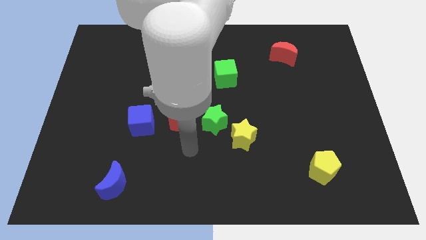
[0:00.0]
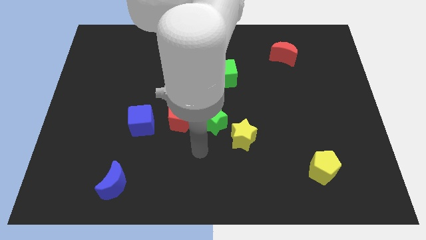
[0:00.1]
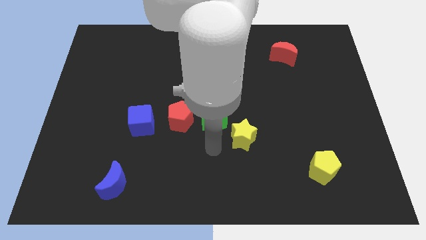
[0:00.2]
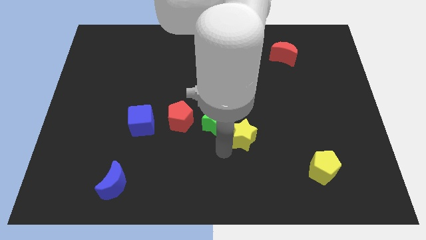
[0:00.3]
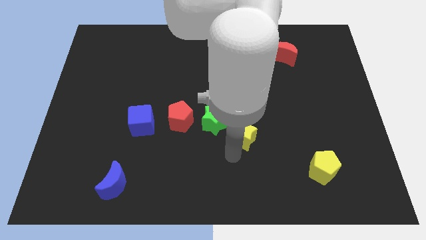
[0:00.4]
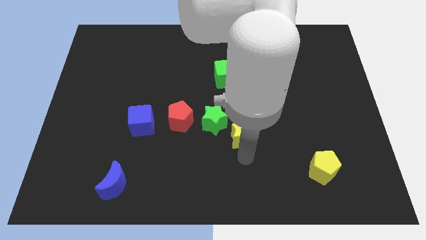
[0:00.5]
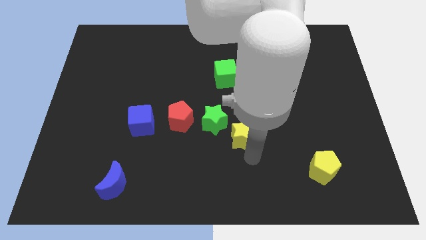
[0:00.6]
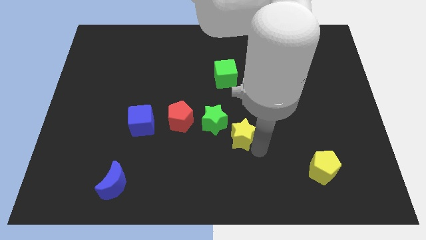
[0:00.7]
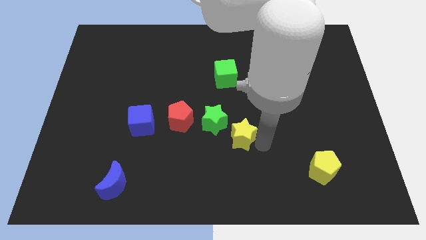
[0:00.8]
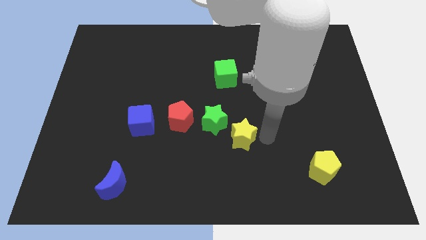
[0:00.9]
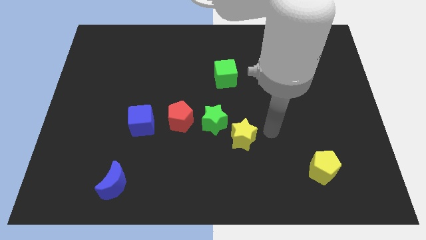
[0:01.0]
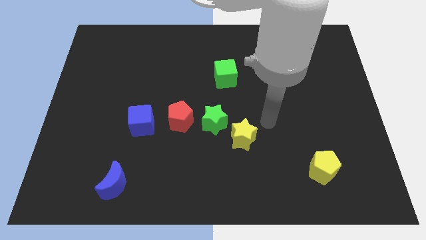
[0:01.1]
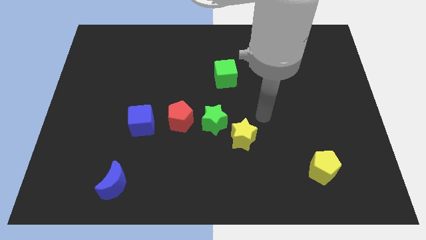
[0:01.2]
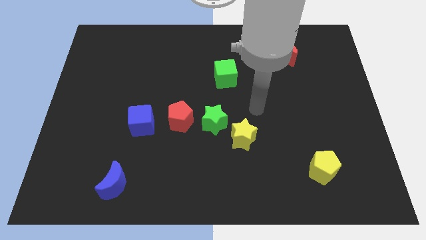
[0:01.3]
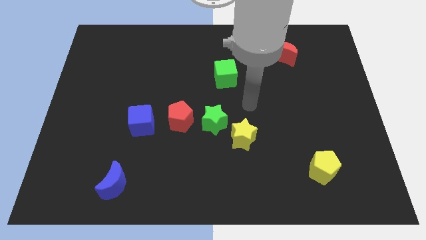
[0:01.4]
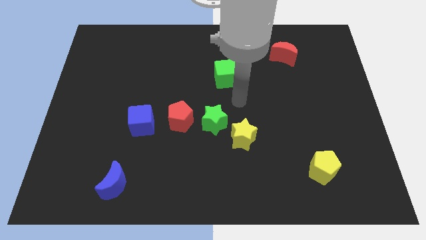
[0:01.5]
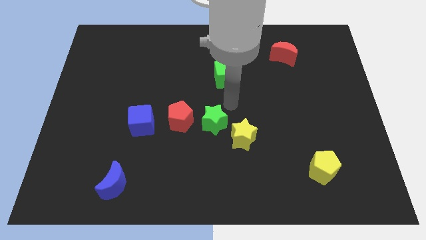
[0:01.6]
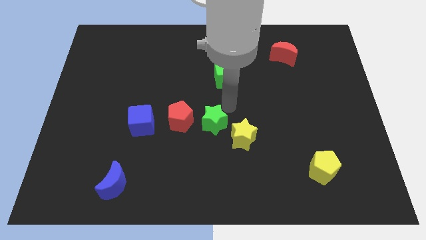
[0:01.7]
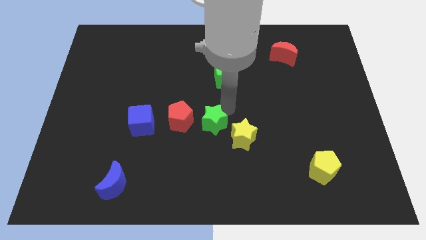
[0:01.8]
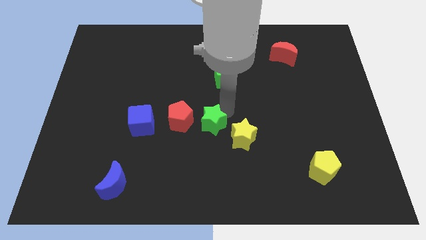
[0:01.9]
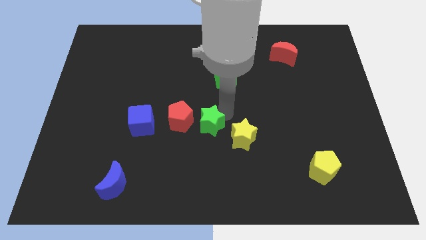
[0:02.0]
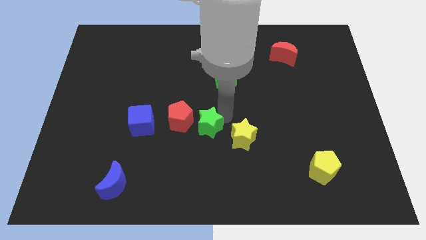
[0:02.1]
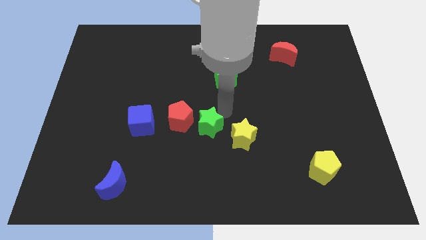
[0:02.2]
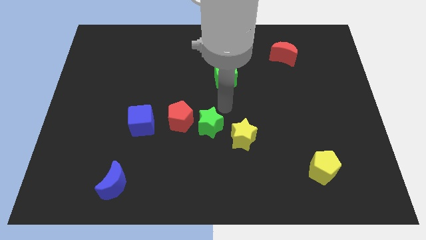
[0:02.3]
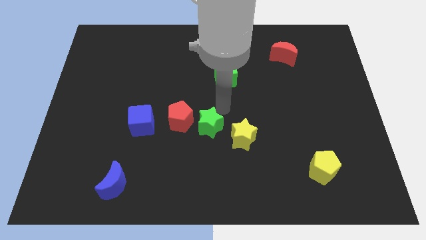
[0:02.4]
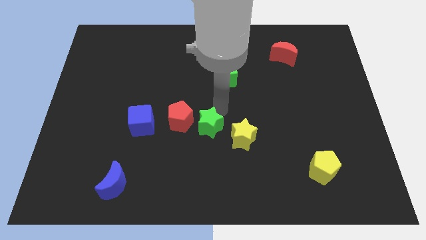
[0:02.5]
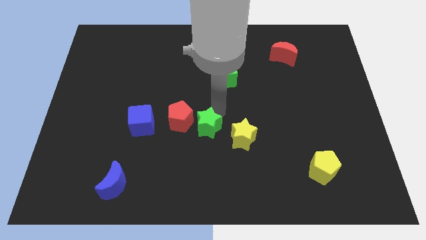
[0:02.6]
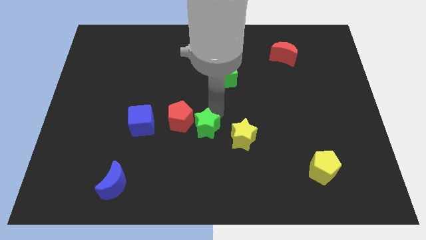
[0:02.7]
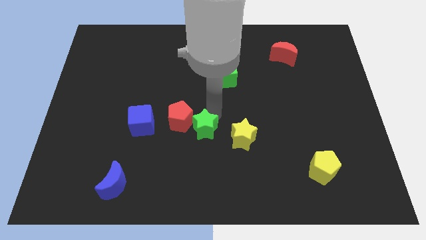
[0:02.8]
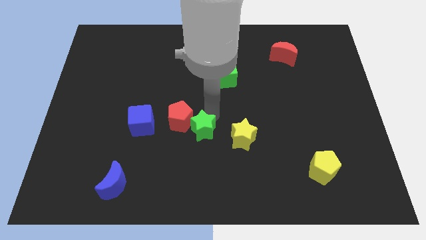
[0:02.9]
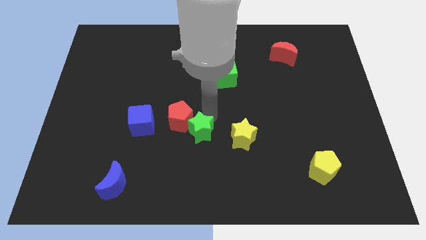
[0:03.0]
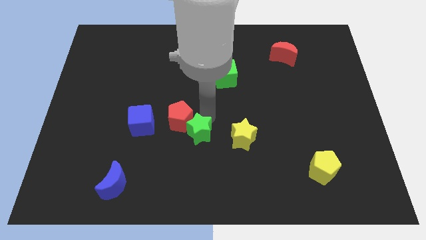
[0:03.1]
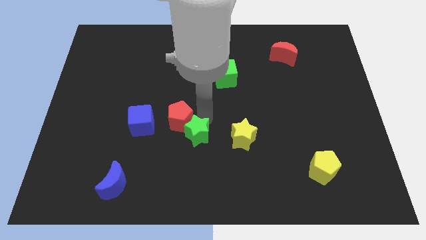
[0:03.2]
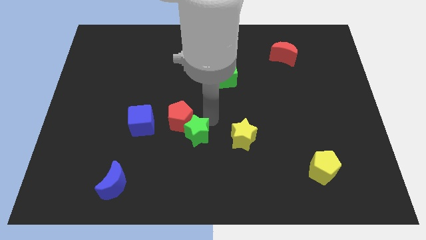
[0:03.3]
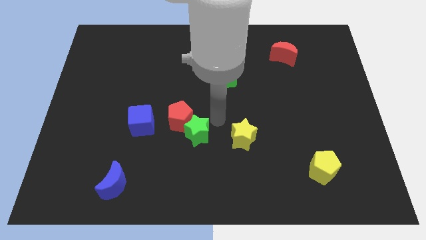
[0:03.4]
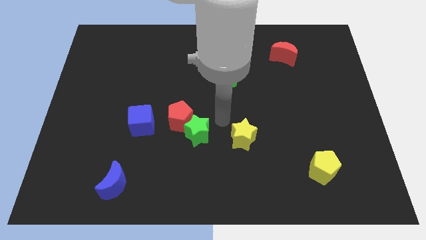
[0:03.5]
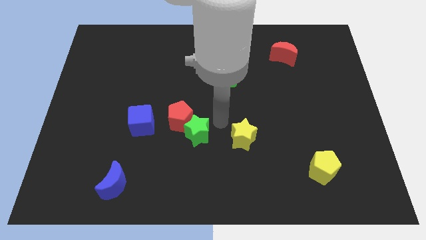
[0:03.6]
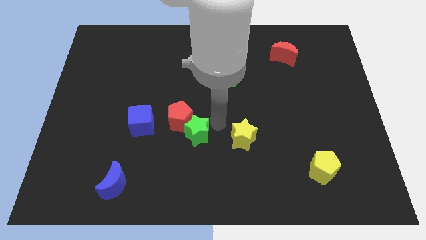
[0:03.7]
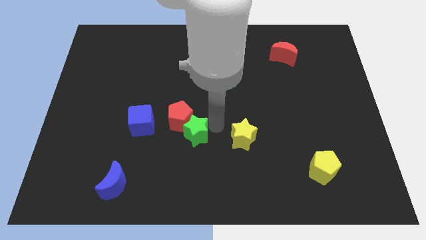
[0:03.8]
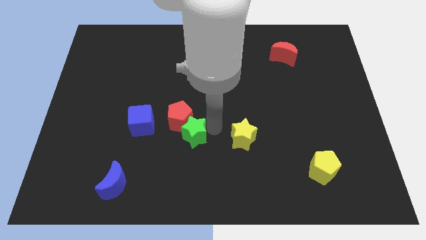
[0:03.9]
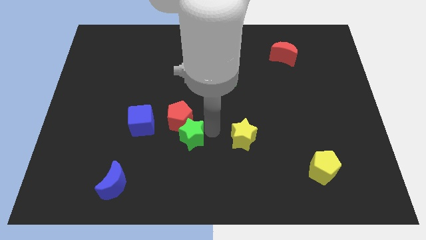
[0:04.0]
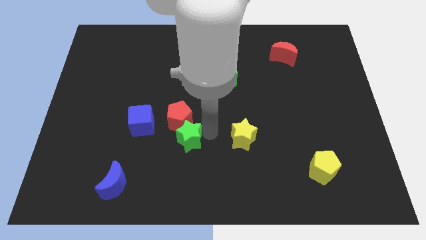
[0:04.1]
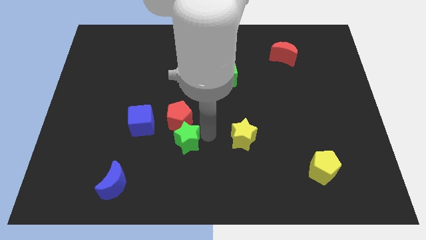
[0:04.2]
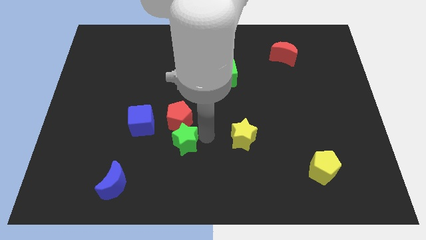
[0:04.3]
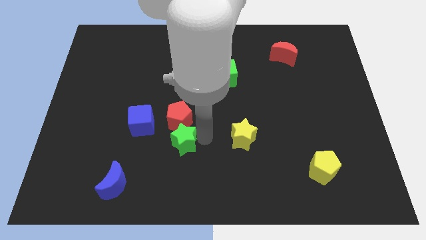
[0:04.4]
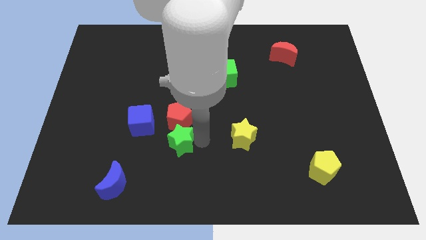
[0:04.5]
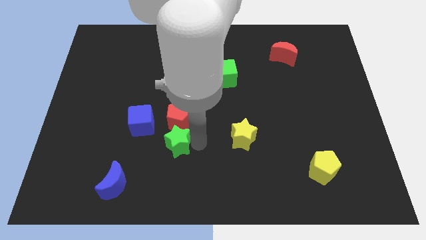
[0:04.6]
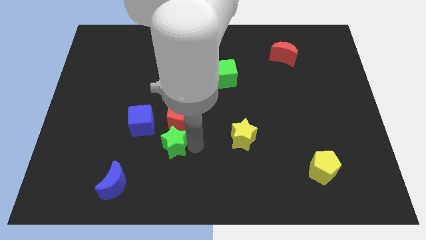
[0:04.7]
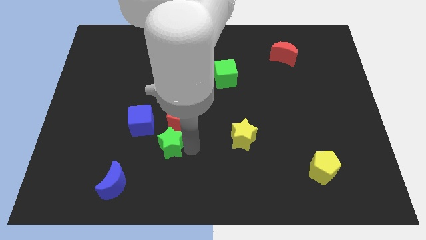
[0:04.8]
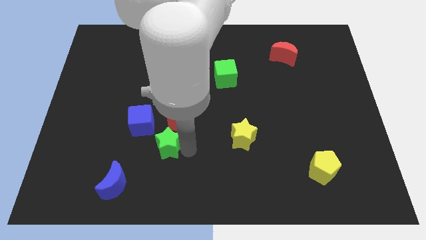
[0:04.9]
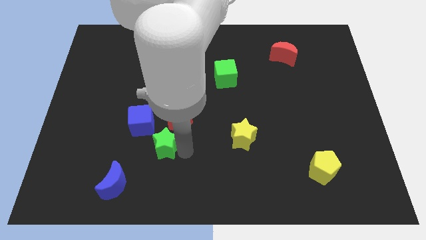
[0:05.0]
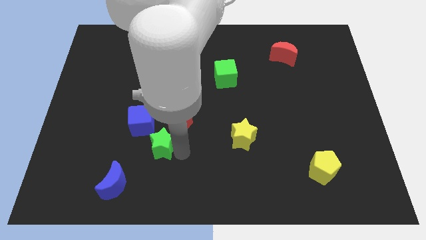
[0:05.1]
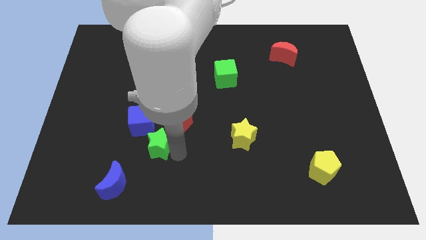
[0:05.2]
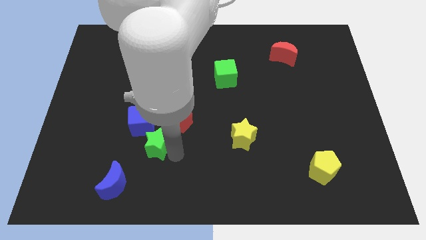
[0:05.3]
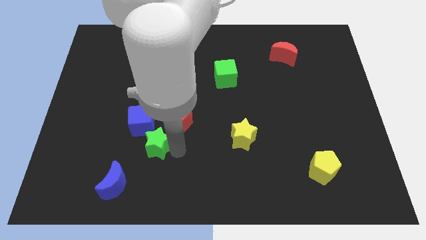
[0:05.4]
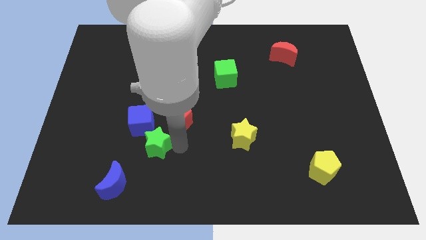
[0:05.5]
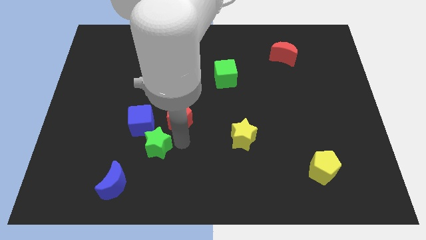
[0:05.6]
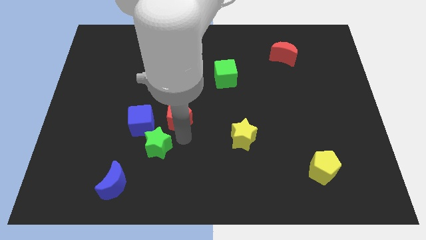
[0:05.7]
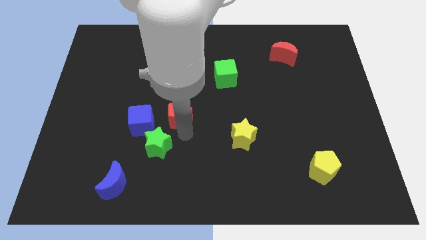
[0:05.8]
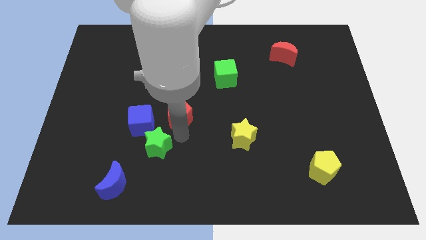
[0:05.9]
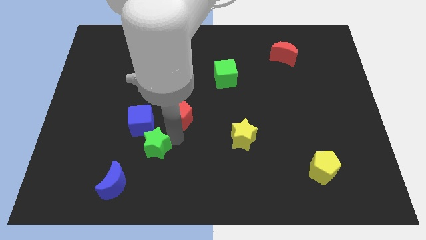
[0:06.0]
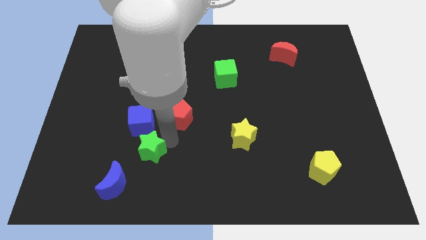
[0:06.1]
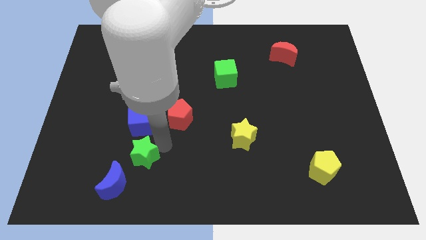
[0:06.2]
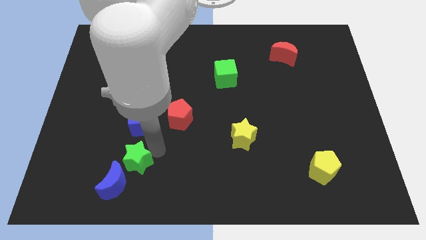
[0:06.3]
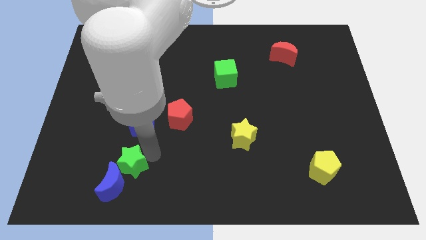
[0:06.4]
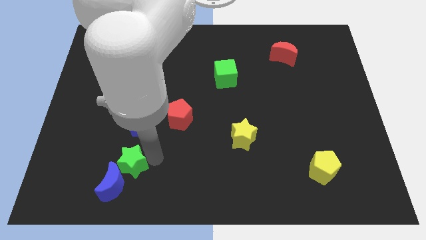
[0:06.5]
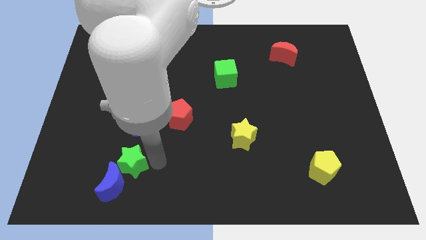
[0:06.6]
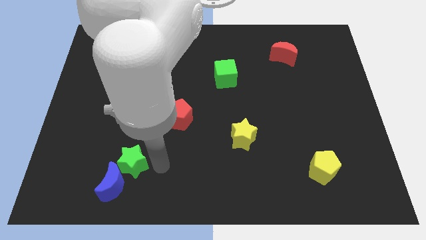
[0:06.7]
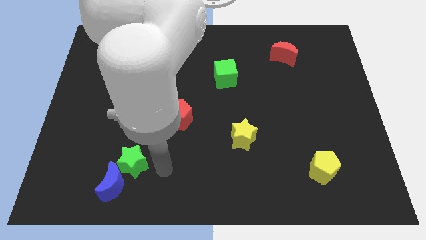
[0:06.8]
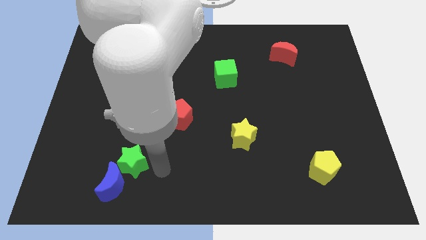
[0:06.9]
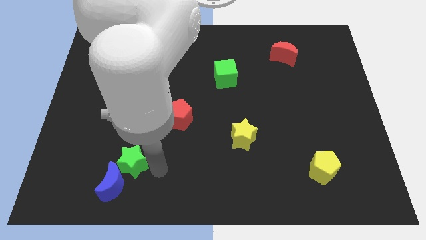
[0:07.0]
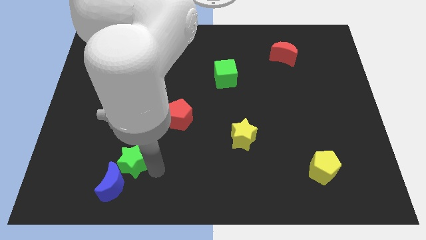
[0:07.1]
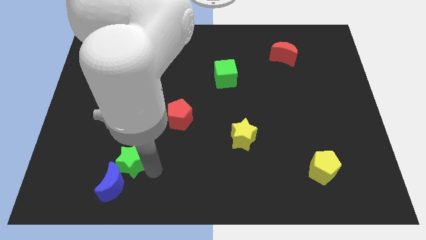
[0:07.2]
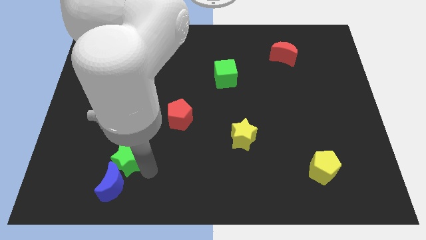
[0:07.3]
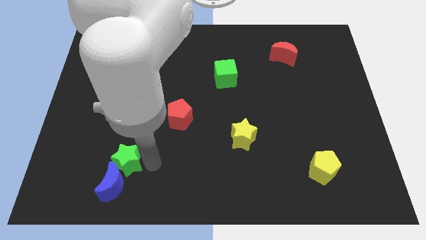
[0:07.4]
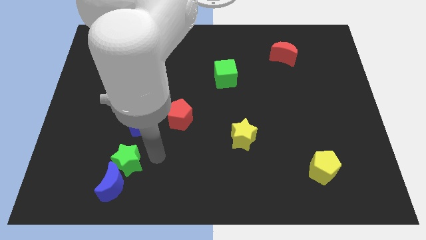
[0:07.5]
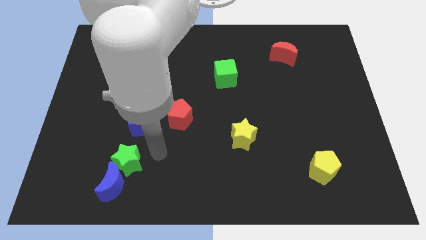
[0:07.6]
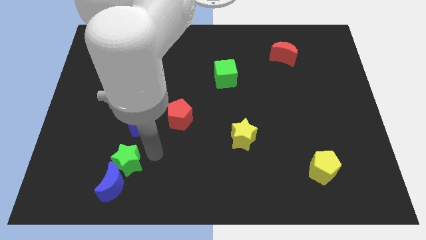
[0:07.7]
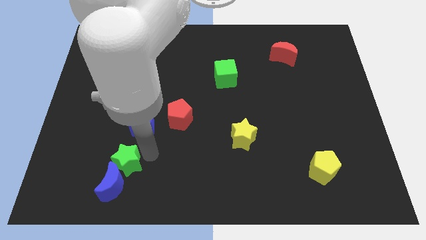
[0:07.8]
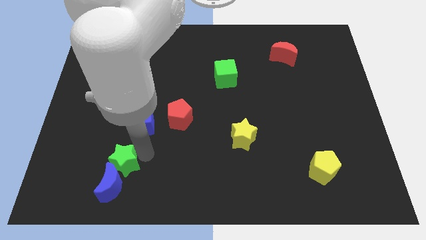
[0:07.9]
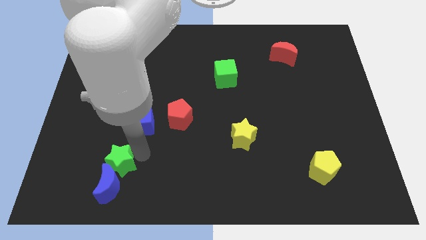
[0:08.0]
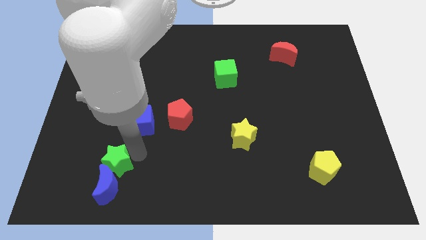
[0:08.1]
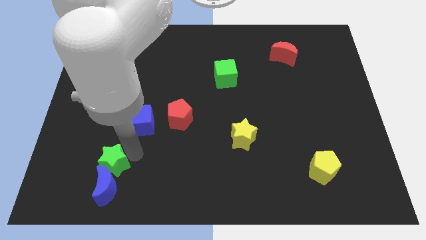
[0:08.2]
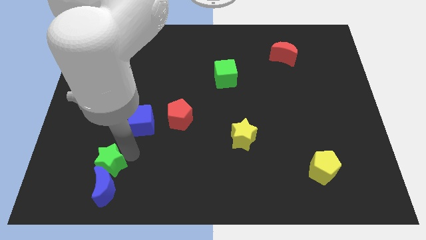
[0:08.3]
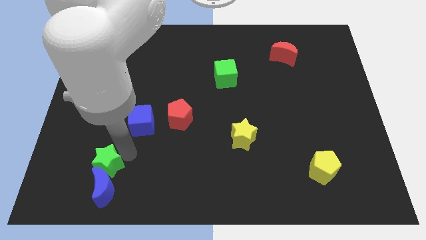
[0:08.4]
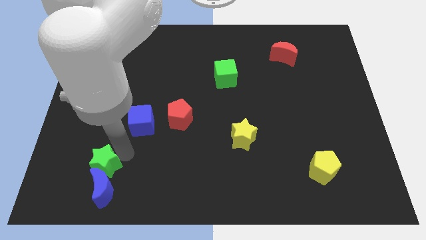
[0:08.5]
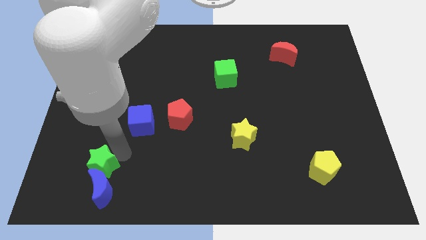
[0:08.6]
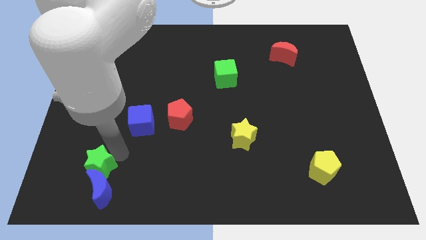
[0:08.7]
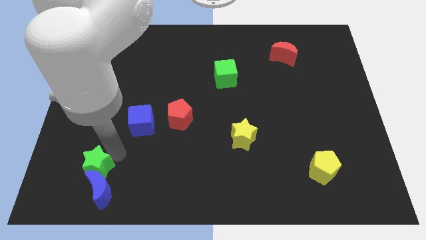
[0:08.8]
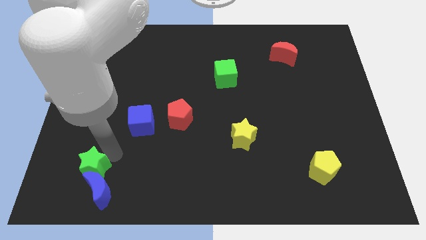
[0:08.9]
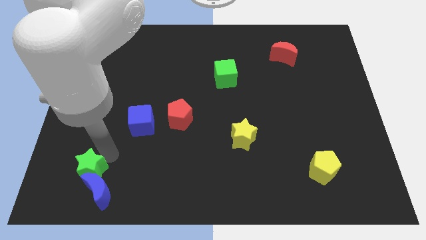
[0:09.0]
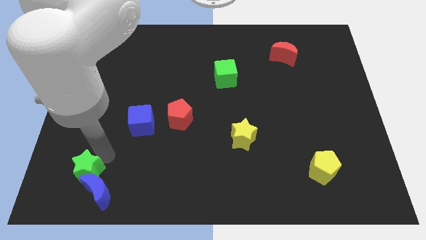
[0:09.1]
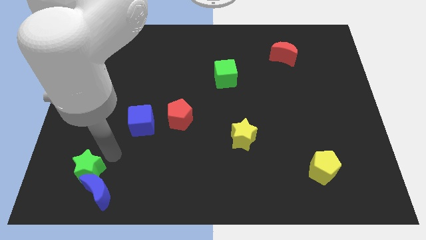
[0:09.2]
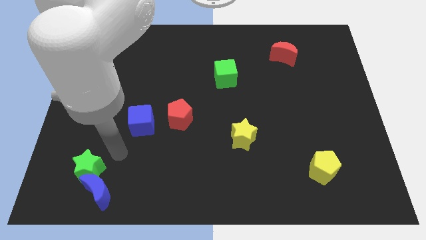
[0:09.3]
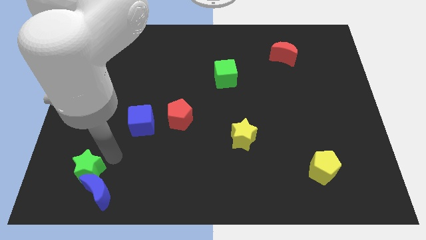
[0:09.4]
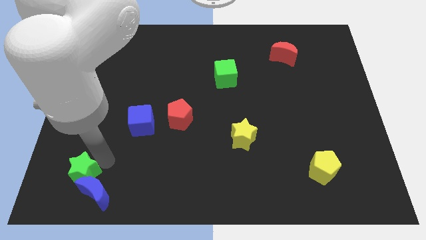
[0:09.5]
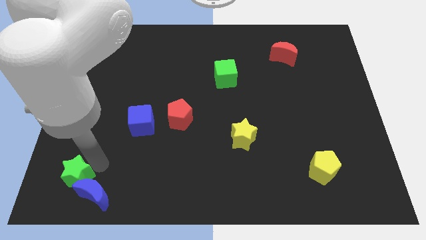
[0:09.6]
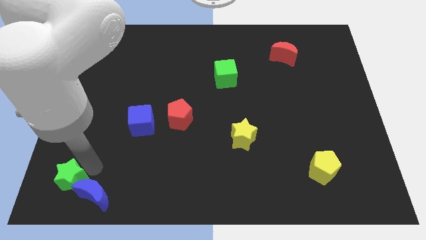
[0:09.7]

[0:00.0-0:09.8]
slide the green star to the bottom left corner
